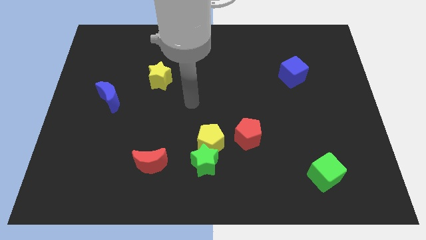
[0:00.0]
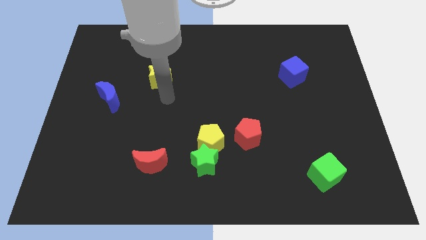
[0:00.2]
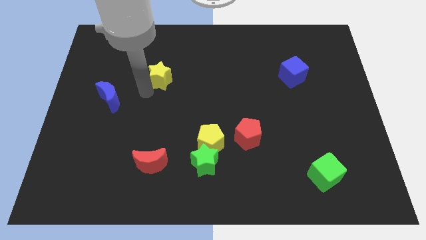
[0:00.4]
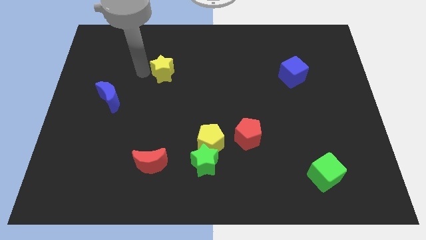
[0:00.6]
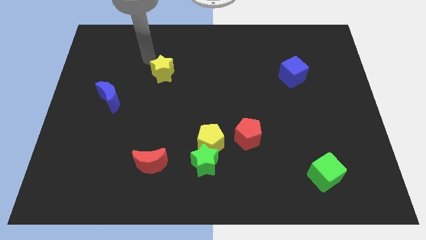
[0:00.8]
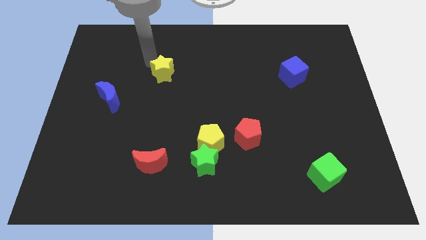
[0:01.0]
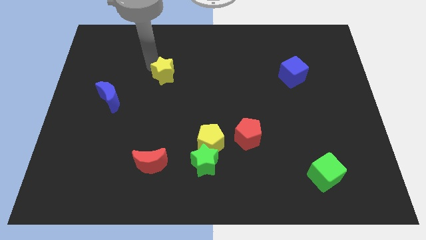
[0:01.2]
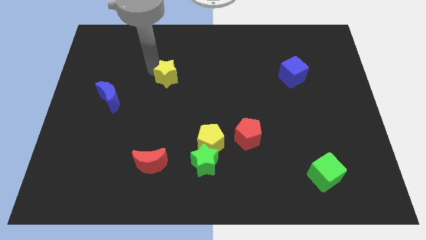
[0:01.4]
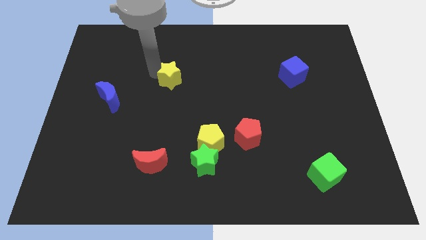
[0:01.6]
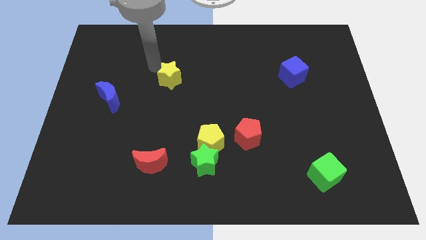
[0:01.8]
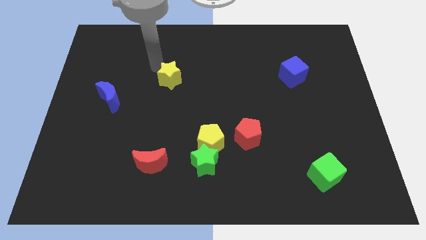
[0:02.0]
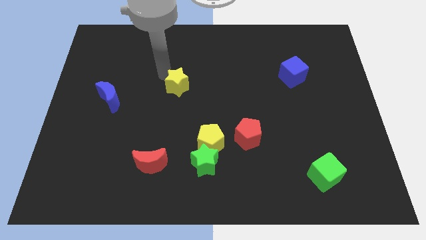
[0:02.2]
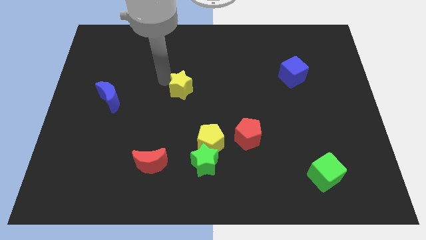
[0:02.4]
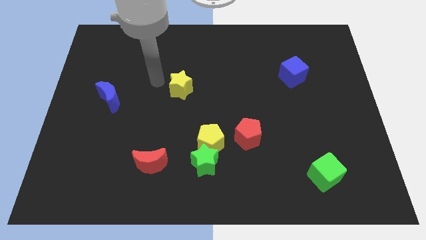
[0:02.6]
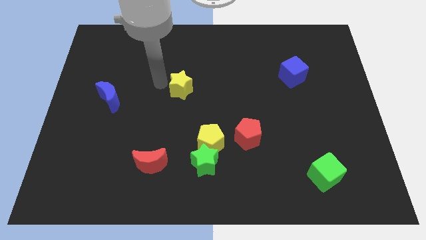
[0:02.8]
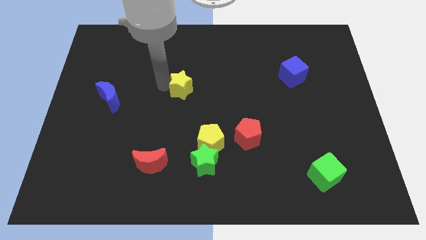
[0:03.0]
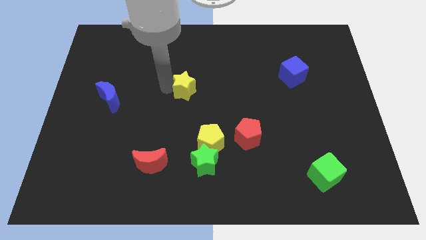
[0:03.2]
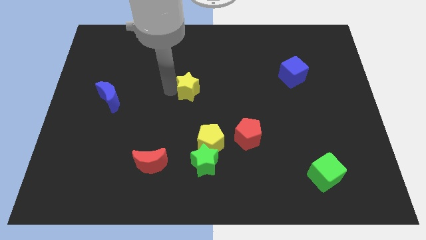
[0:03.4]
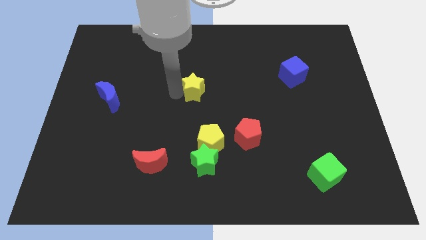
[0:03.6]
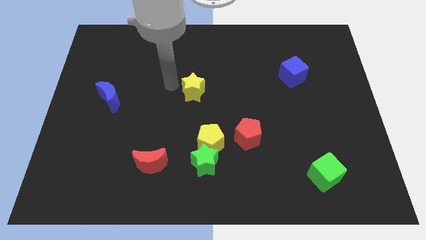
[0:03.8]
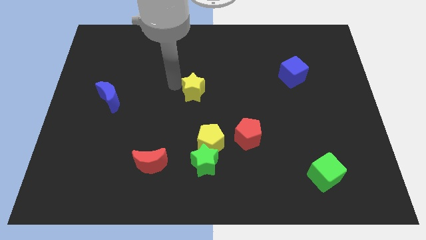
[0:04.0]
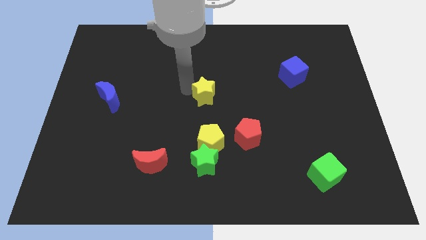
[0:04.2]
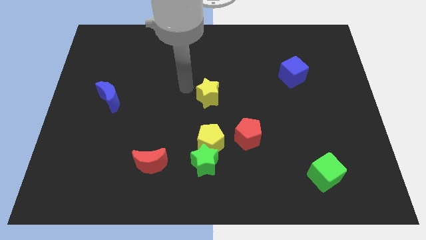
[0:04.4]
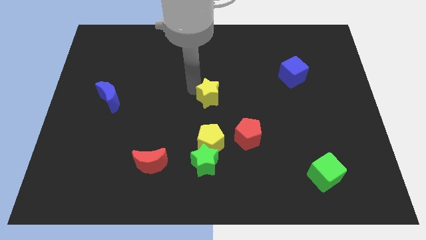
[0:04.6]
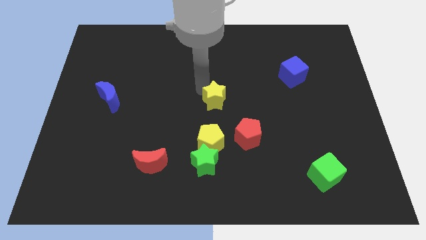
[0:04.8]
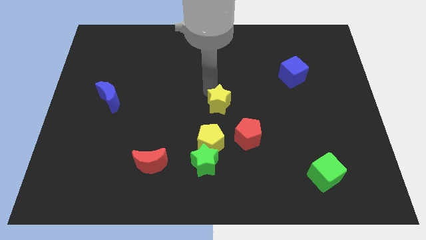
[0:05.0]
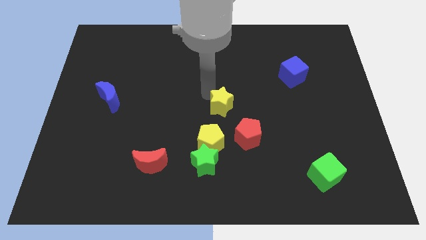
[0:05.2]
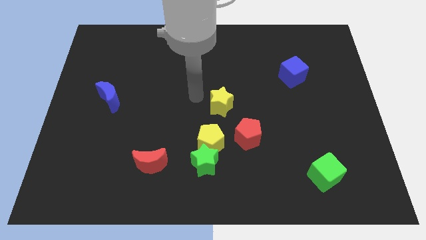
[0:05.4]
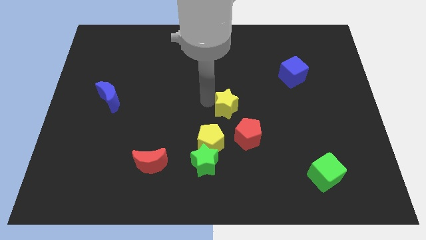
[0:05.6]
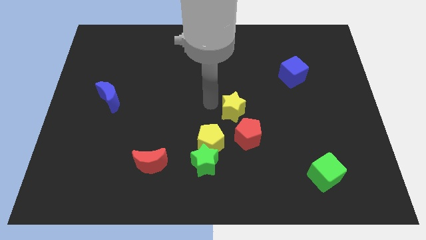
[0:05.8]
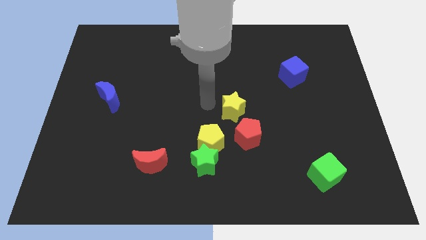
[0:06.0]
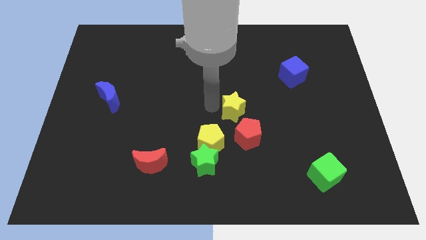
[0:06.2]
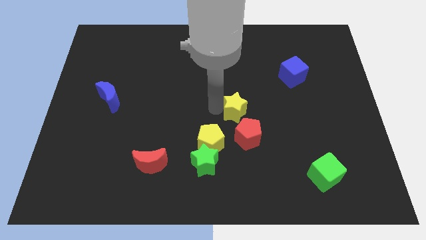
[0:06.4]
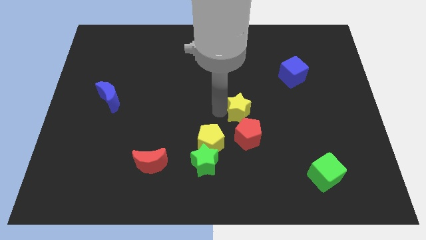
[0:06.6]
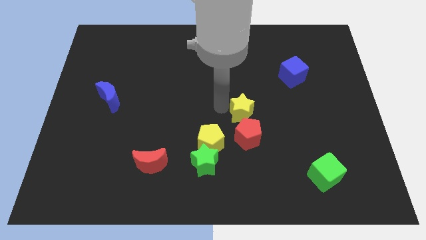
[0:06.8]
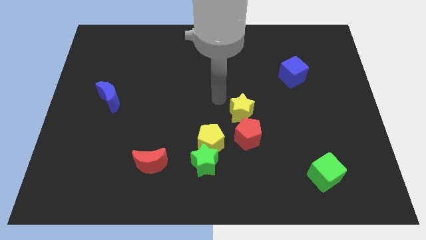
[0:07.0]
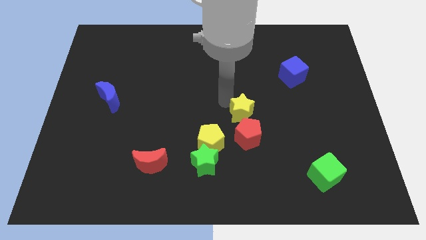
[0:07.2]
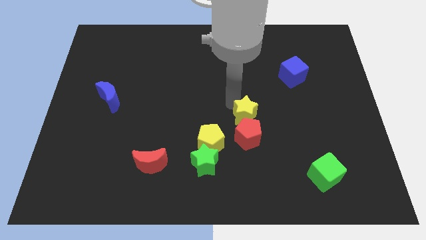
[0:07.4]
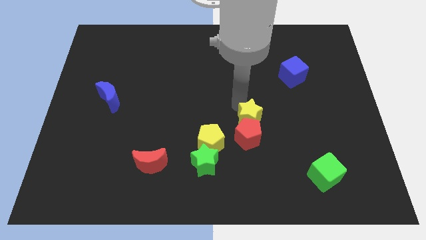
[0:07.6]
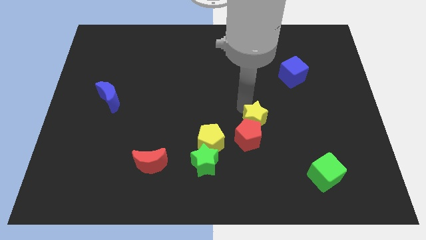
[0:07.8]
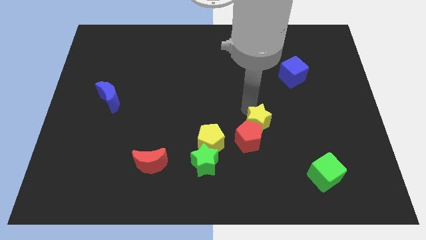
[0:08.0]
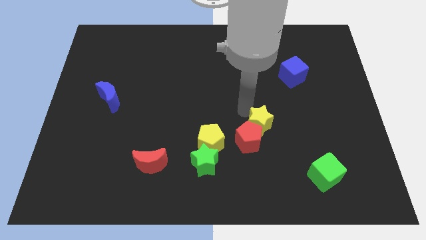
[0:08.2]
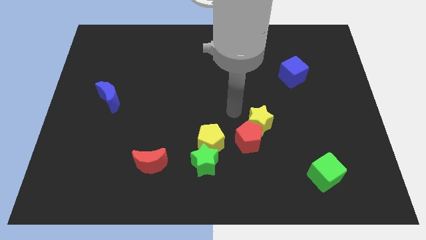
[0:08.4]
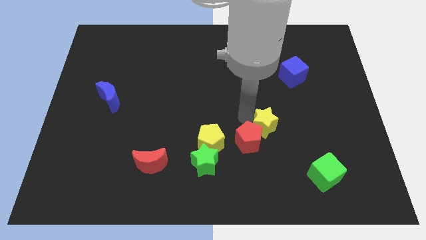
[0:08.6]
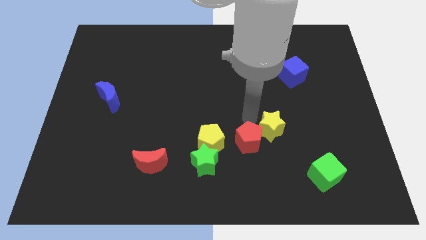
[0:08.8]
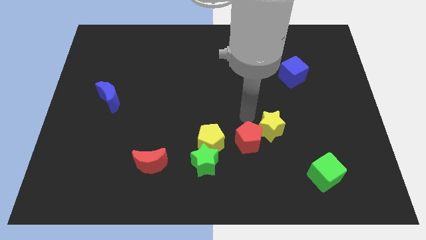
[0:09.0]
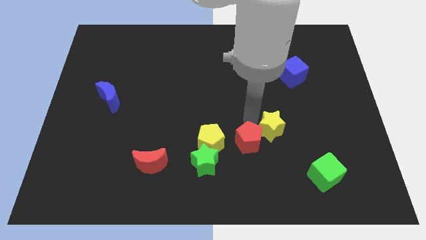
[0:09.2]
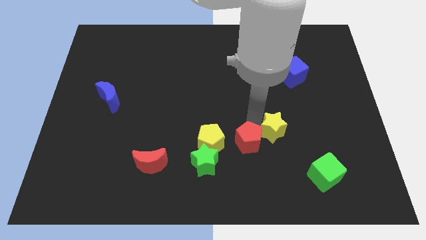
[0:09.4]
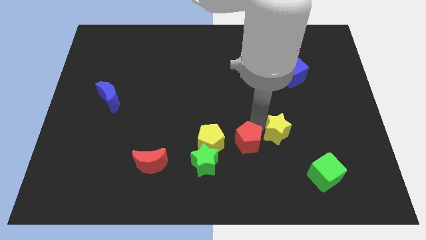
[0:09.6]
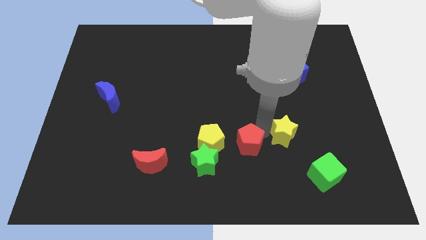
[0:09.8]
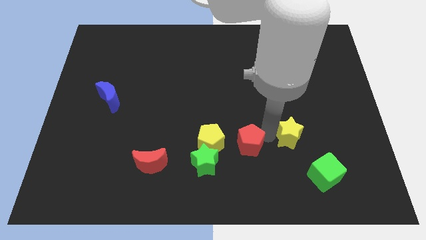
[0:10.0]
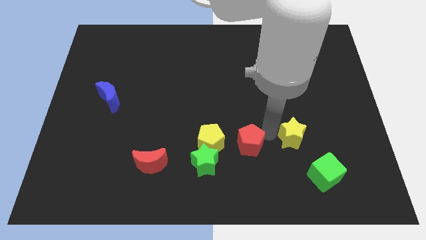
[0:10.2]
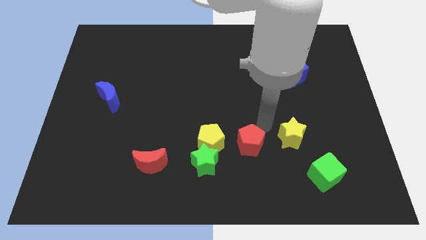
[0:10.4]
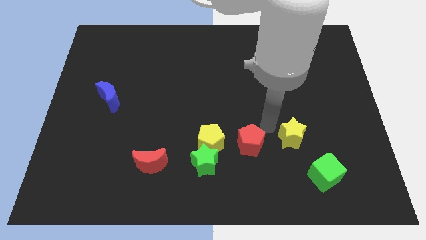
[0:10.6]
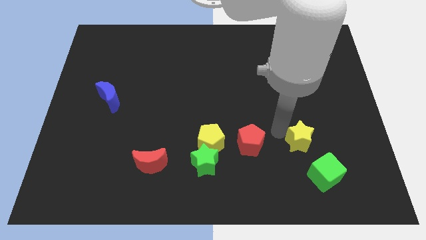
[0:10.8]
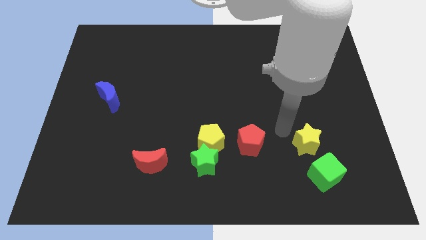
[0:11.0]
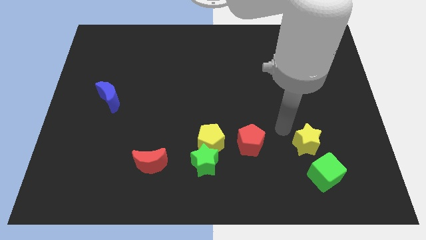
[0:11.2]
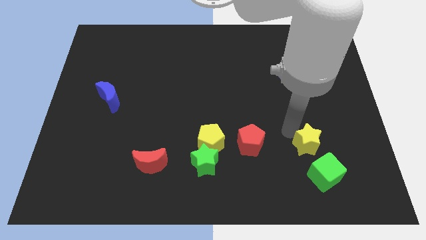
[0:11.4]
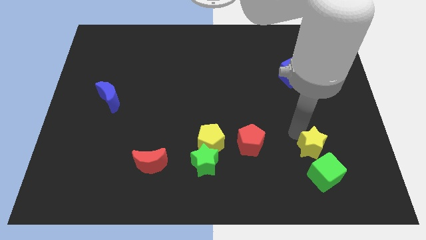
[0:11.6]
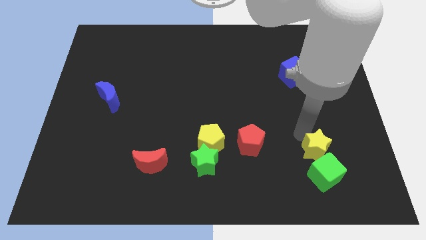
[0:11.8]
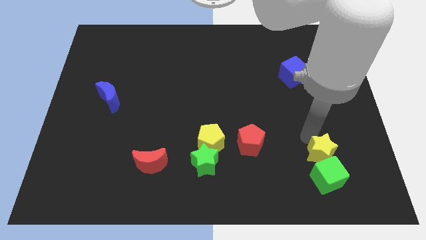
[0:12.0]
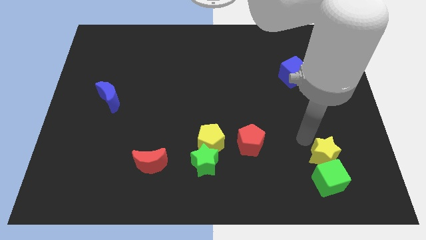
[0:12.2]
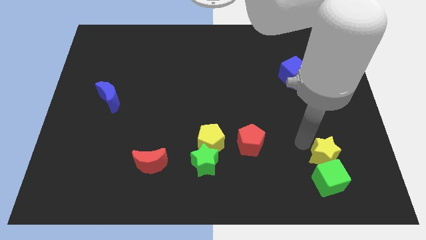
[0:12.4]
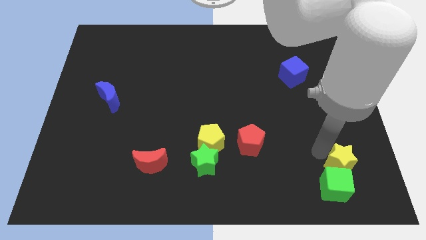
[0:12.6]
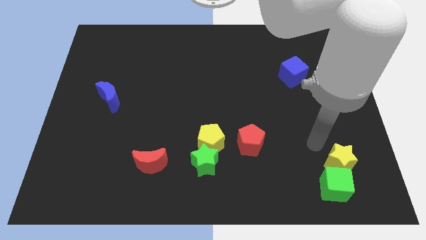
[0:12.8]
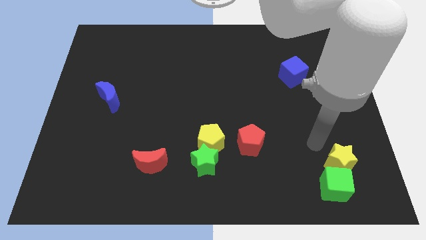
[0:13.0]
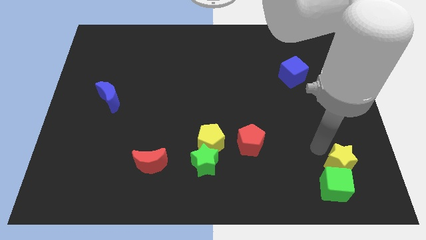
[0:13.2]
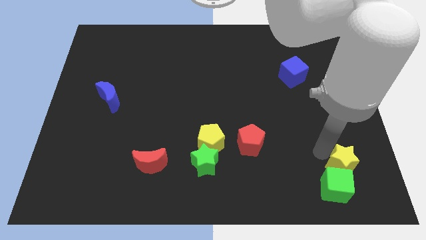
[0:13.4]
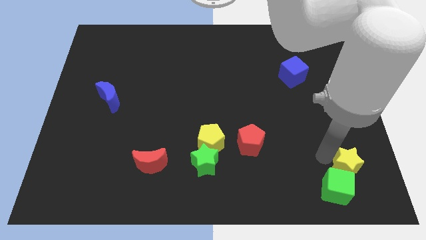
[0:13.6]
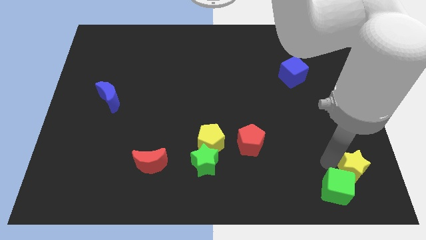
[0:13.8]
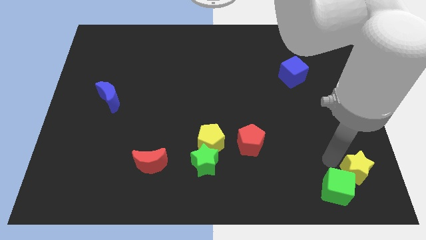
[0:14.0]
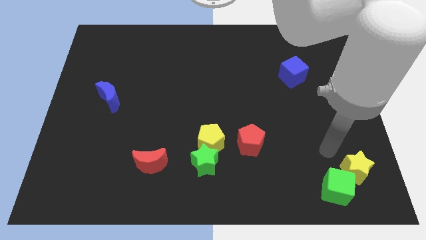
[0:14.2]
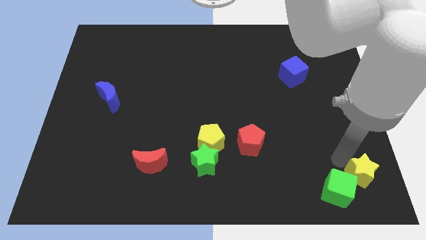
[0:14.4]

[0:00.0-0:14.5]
push the yellow star to the lower right corner
